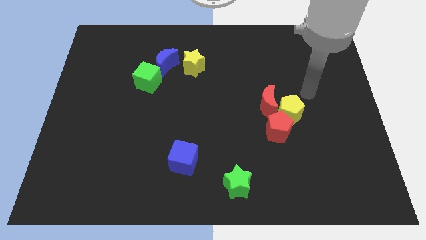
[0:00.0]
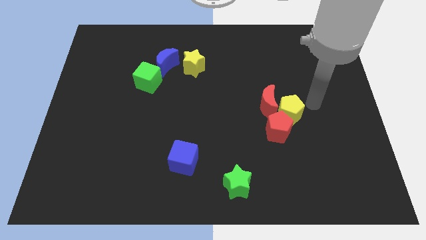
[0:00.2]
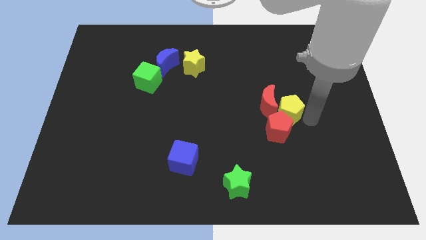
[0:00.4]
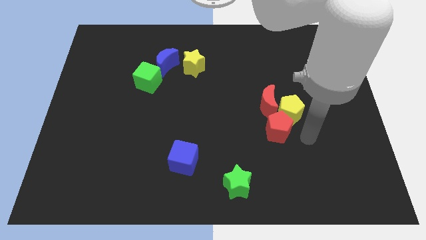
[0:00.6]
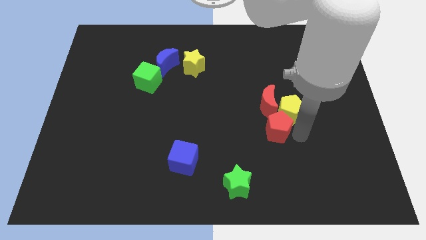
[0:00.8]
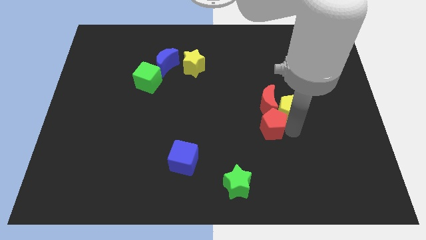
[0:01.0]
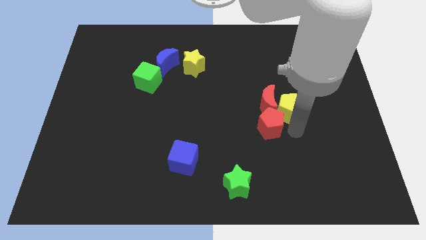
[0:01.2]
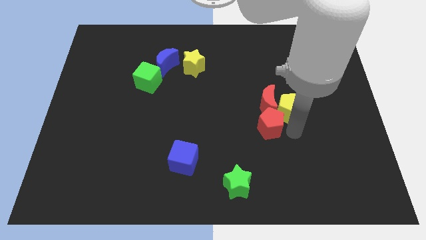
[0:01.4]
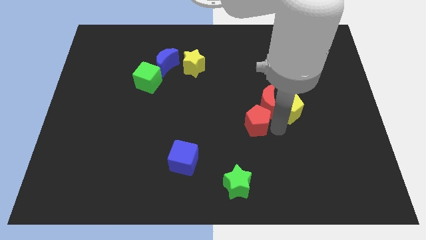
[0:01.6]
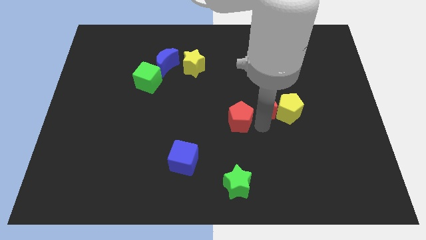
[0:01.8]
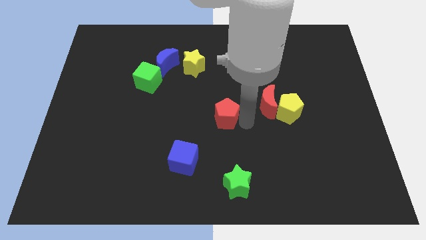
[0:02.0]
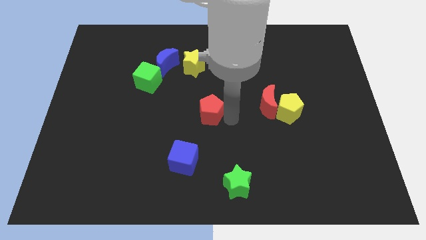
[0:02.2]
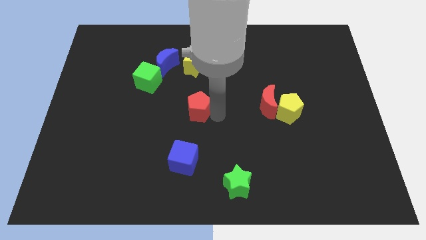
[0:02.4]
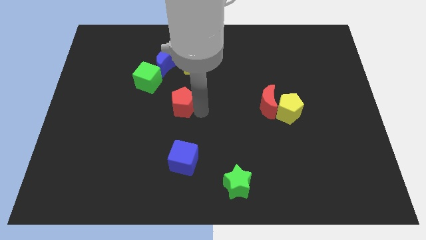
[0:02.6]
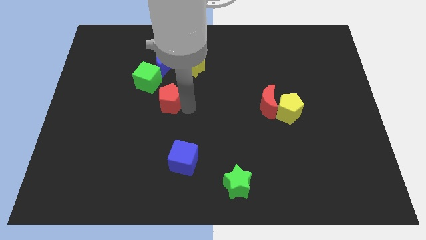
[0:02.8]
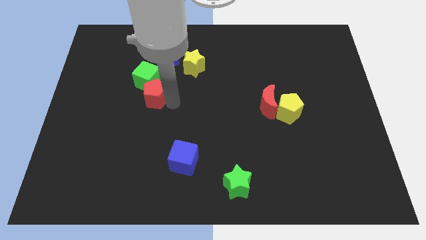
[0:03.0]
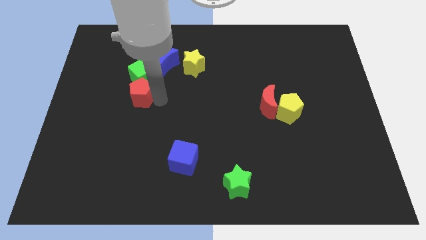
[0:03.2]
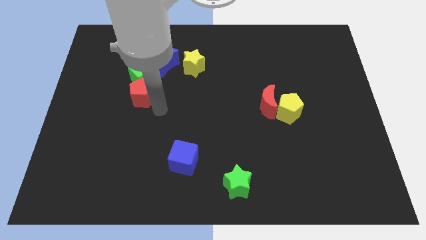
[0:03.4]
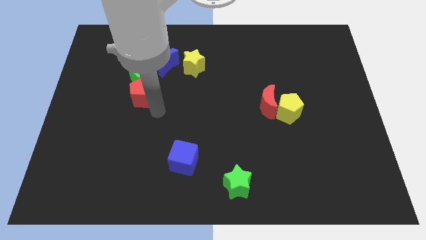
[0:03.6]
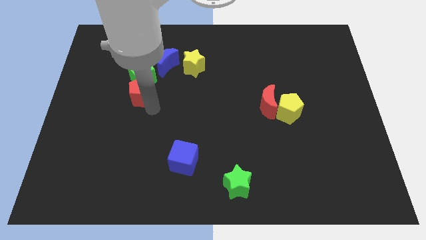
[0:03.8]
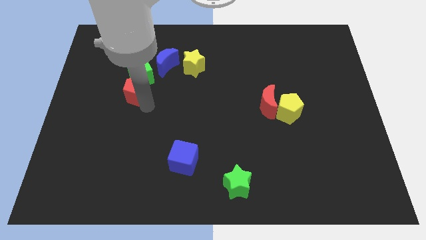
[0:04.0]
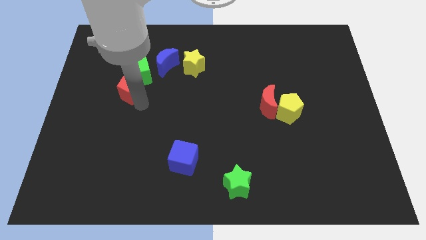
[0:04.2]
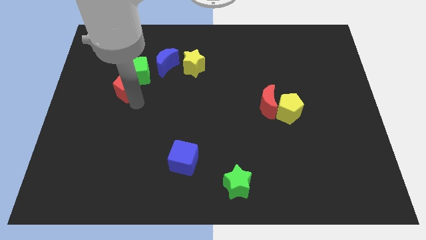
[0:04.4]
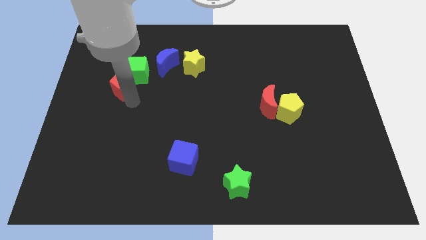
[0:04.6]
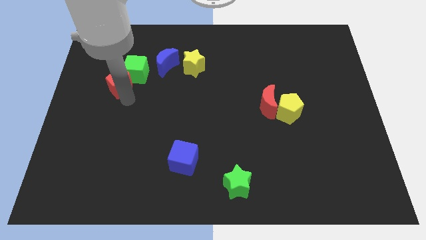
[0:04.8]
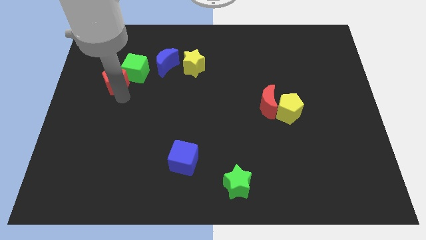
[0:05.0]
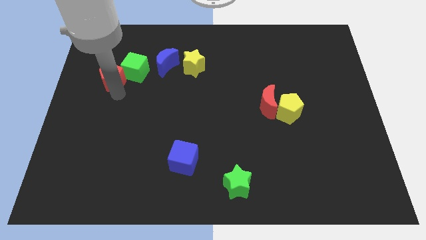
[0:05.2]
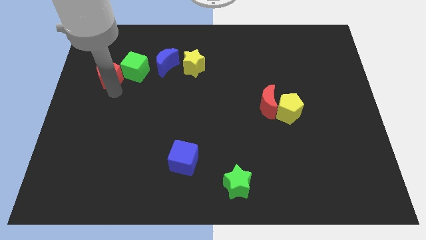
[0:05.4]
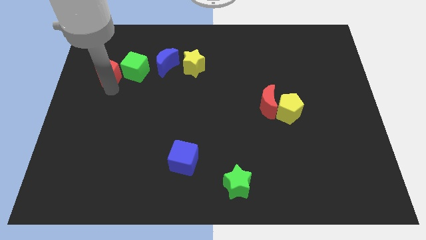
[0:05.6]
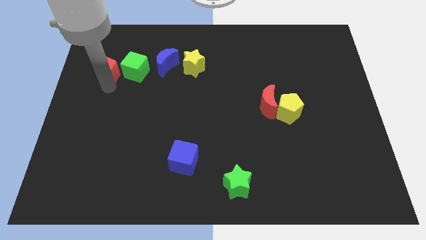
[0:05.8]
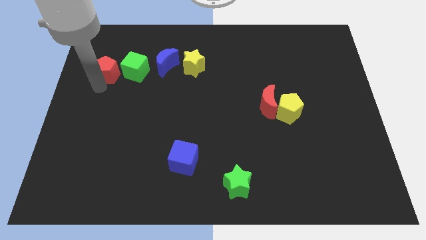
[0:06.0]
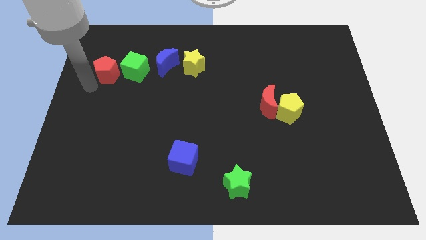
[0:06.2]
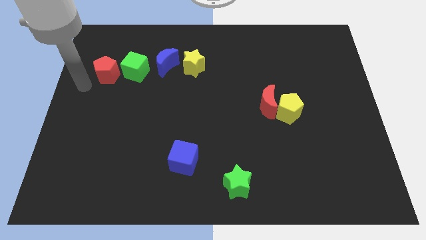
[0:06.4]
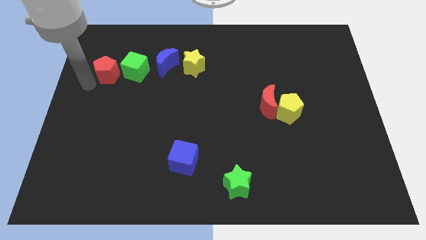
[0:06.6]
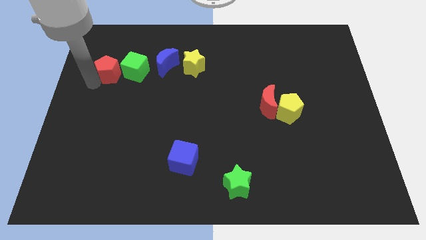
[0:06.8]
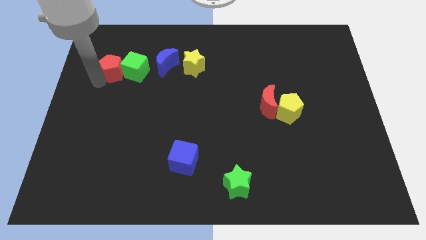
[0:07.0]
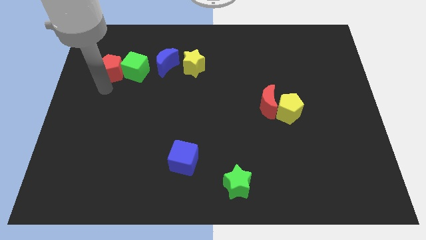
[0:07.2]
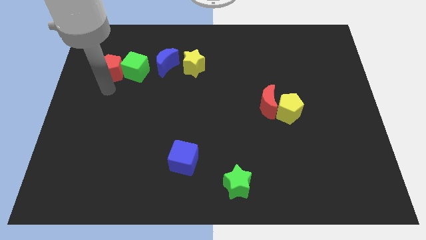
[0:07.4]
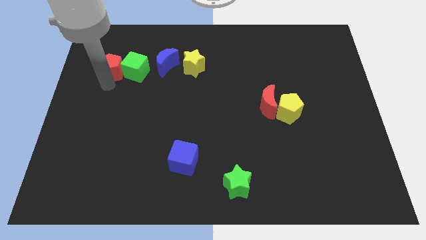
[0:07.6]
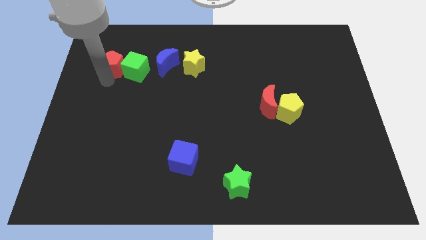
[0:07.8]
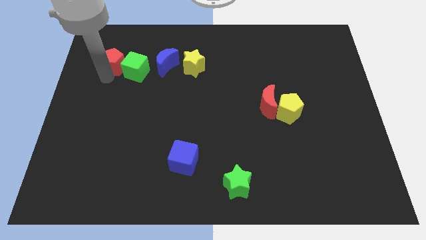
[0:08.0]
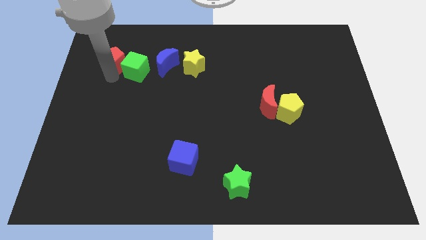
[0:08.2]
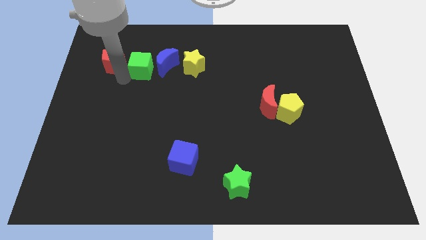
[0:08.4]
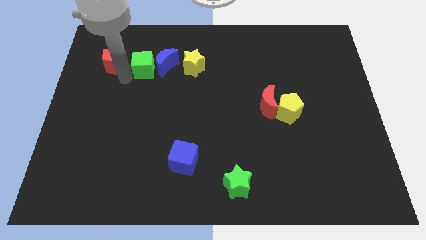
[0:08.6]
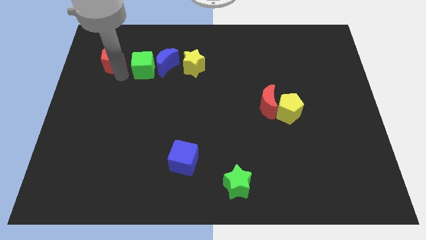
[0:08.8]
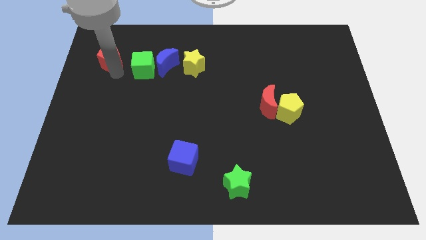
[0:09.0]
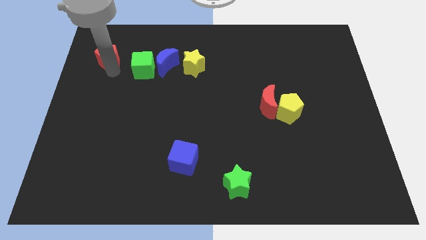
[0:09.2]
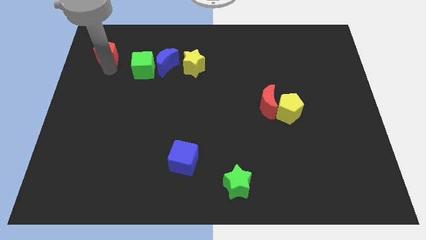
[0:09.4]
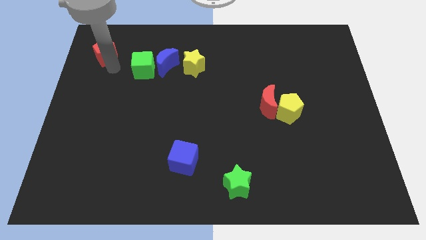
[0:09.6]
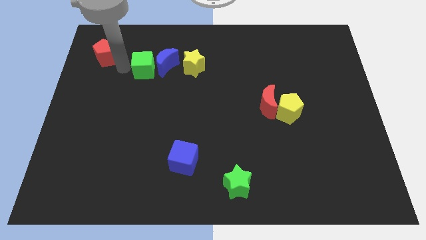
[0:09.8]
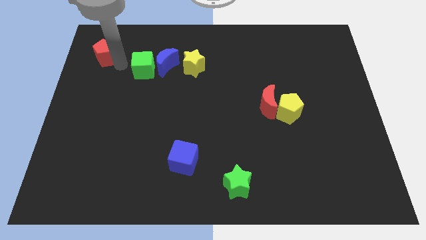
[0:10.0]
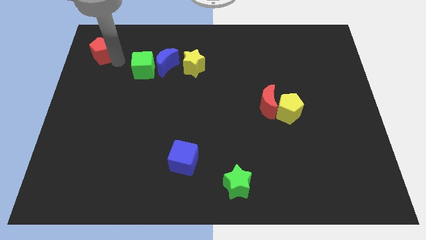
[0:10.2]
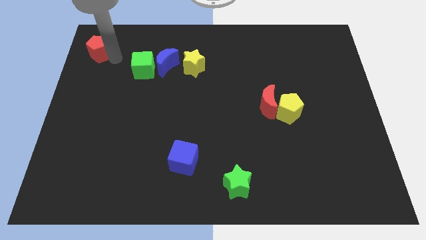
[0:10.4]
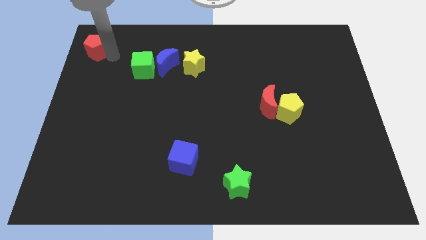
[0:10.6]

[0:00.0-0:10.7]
move the red pentagon to the top left

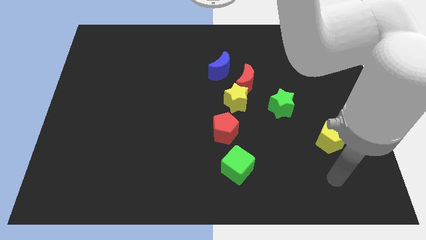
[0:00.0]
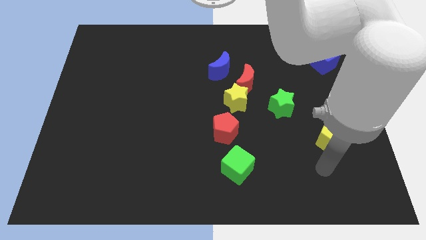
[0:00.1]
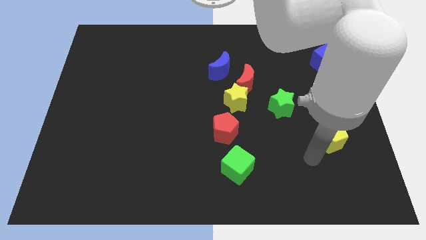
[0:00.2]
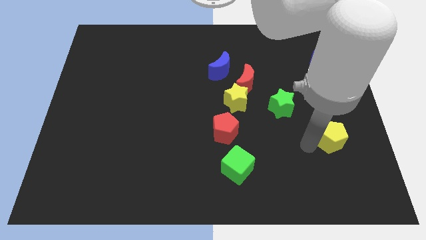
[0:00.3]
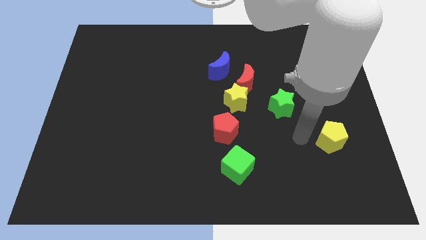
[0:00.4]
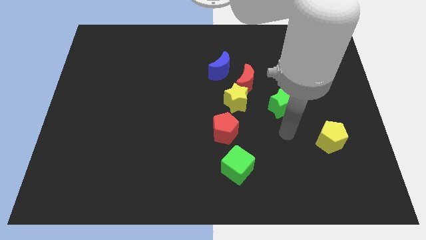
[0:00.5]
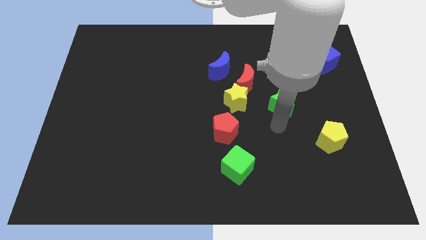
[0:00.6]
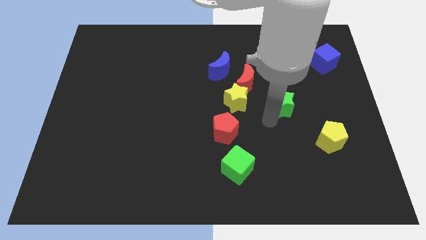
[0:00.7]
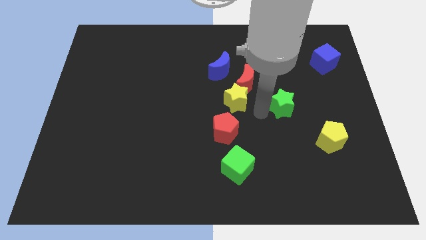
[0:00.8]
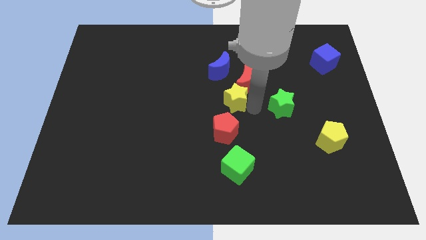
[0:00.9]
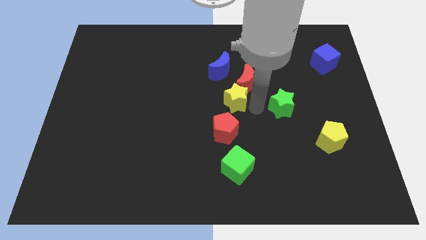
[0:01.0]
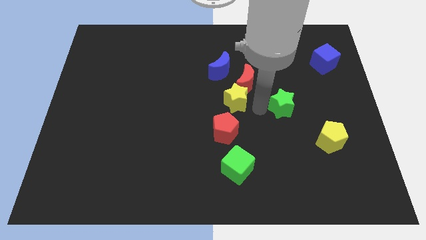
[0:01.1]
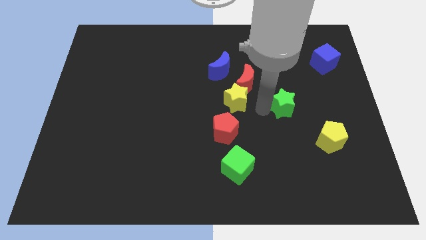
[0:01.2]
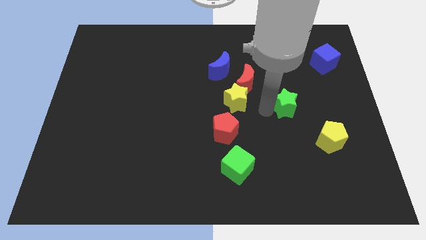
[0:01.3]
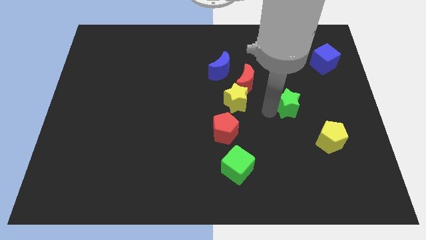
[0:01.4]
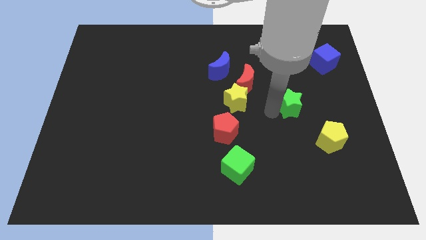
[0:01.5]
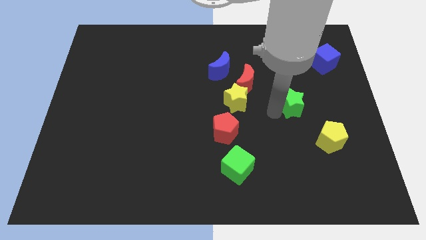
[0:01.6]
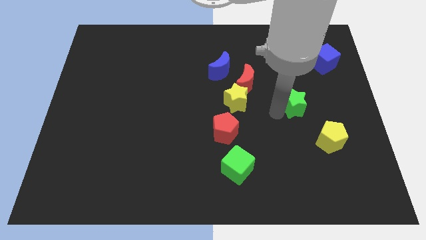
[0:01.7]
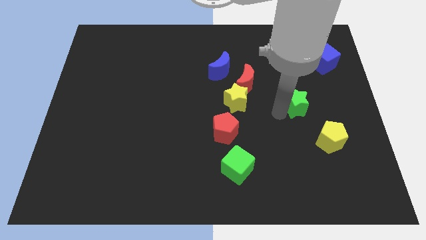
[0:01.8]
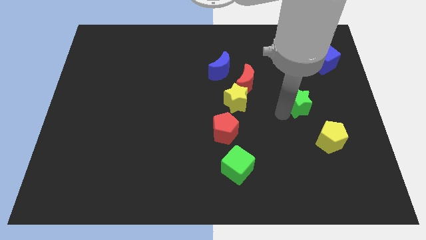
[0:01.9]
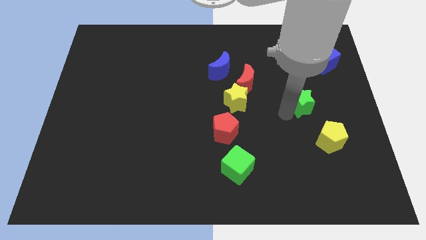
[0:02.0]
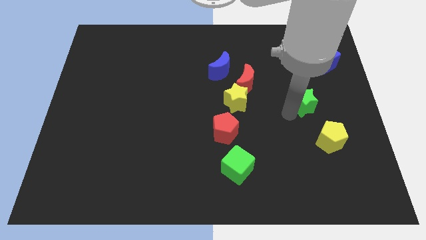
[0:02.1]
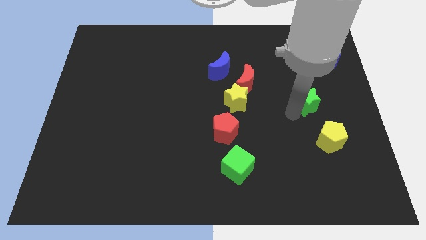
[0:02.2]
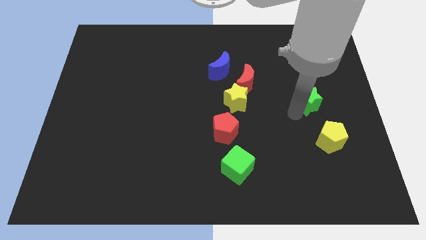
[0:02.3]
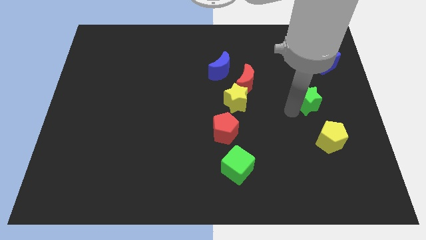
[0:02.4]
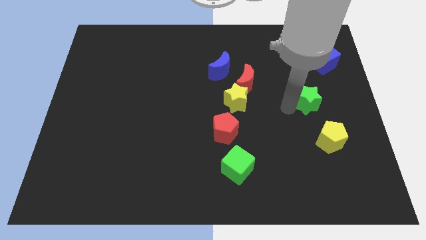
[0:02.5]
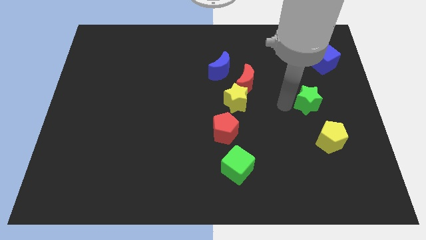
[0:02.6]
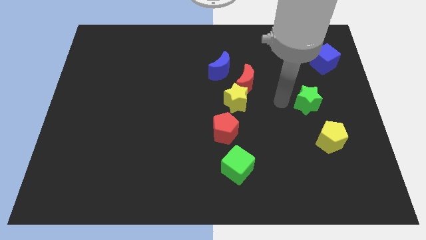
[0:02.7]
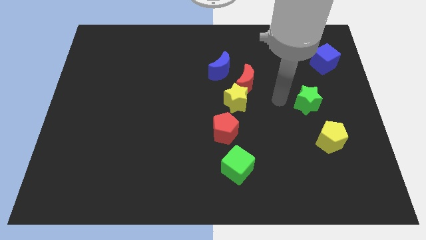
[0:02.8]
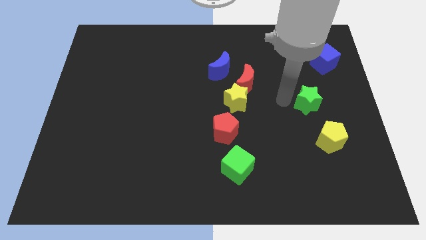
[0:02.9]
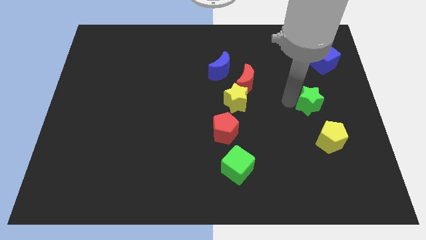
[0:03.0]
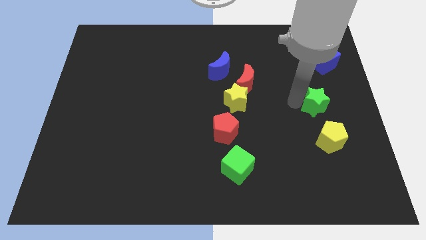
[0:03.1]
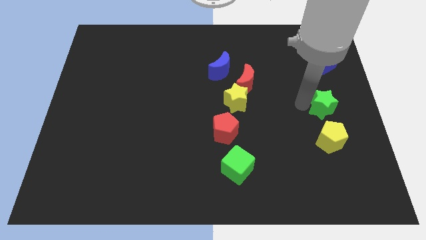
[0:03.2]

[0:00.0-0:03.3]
put the green star to the center right
